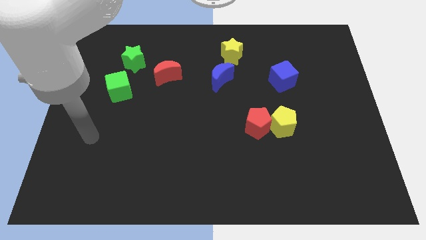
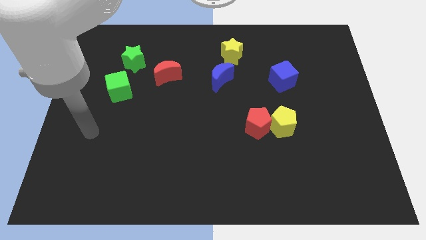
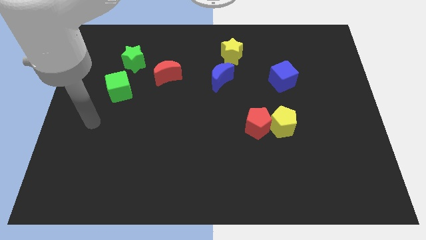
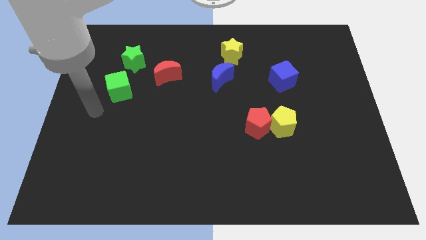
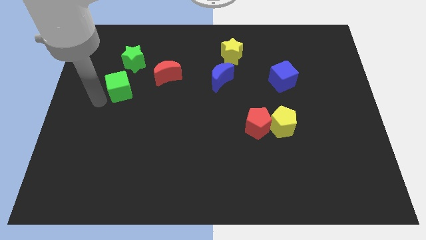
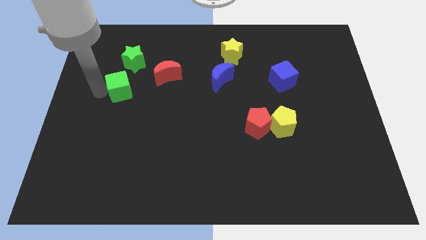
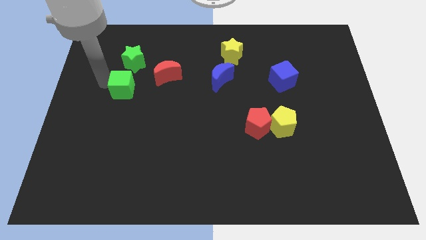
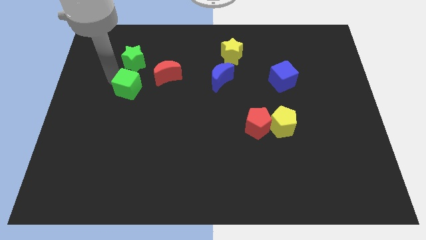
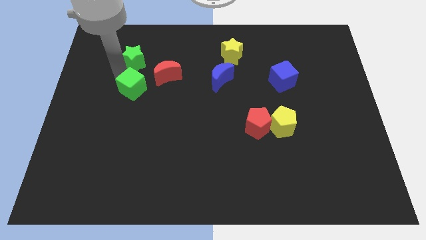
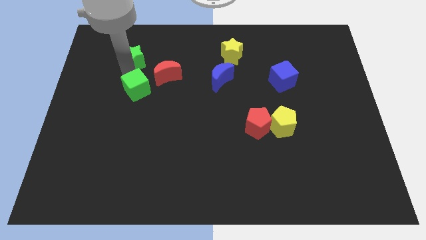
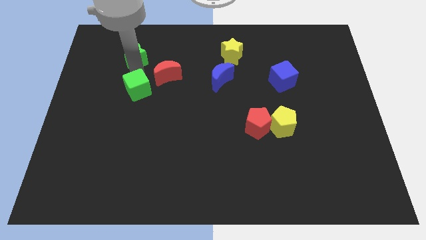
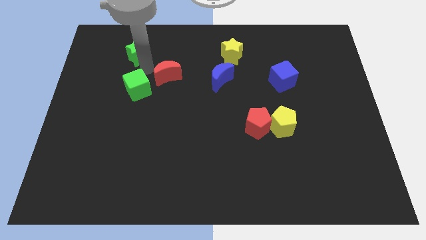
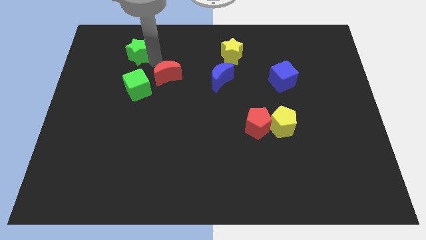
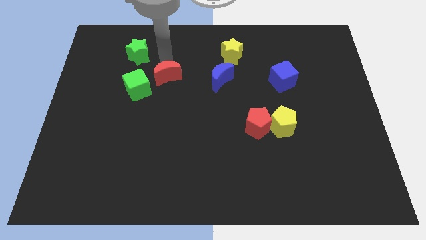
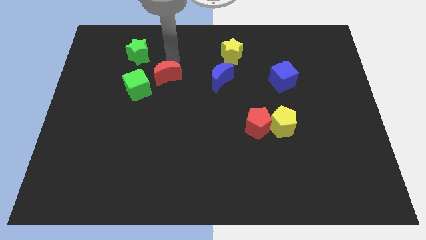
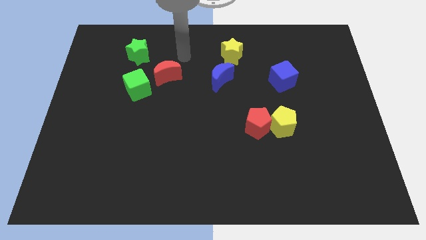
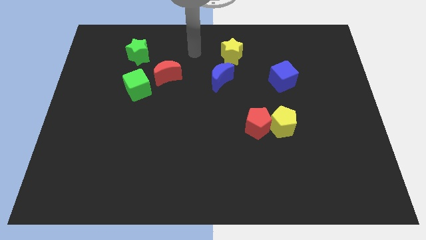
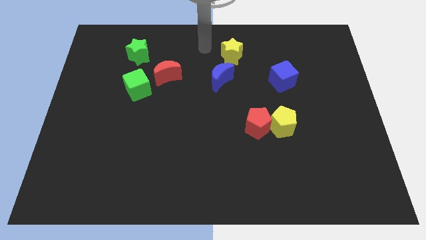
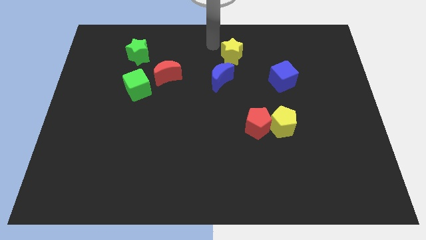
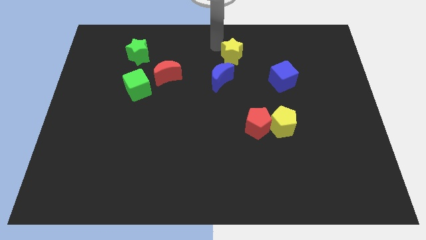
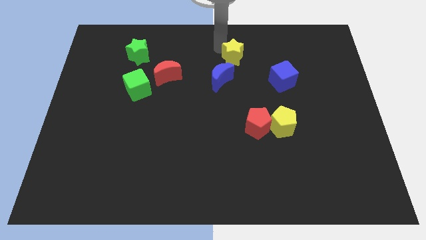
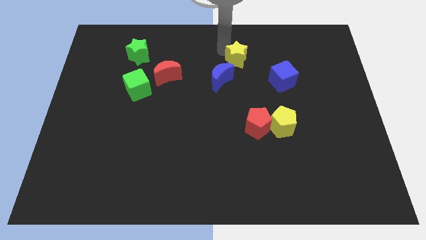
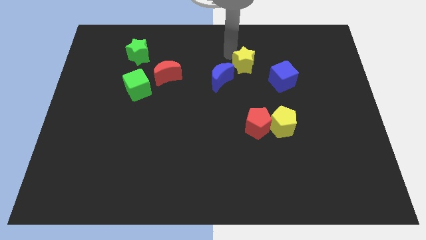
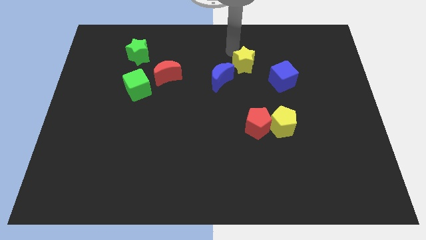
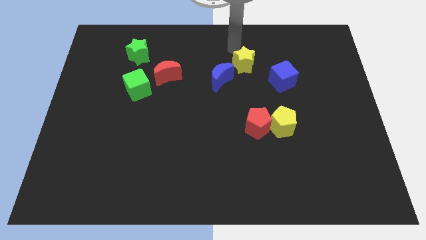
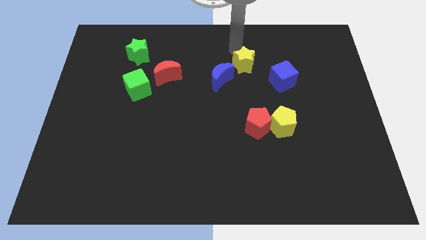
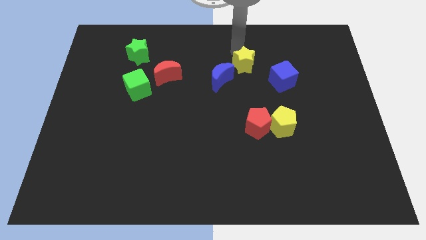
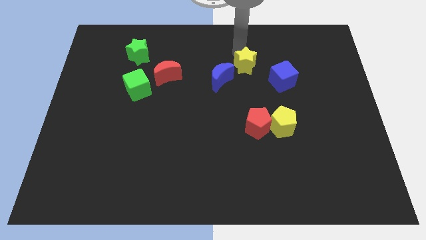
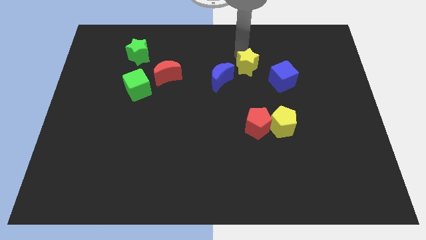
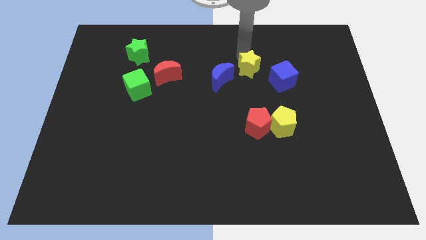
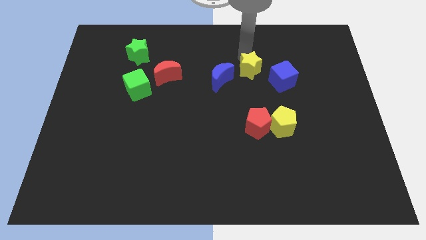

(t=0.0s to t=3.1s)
slightly move the yellow star down and then to the right

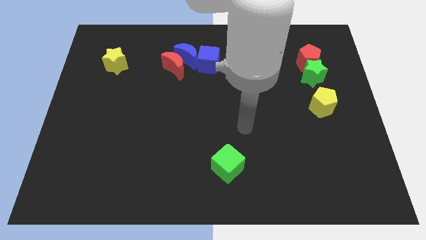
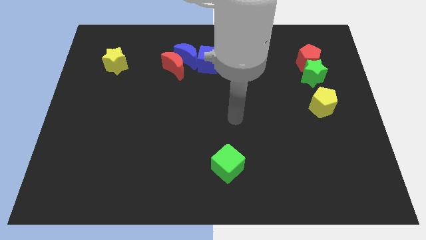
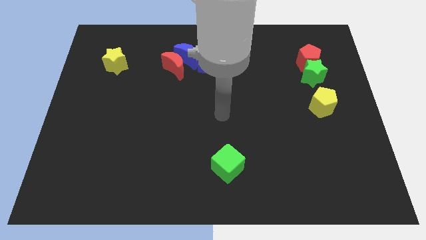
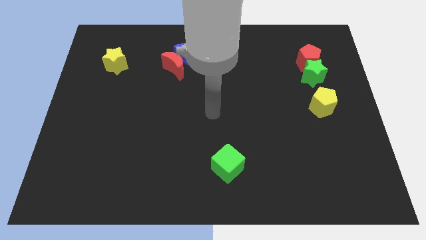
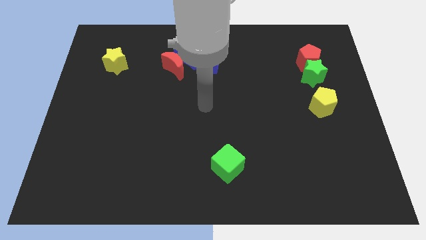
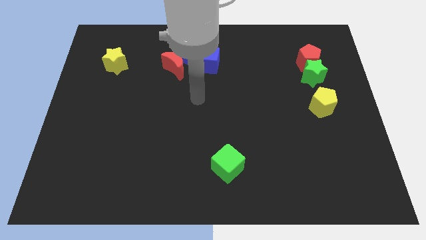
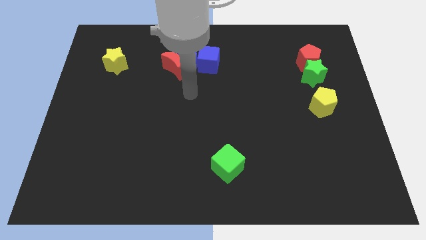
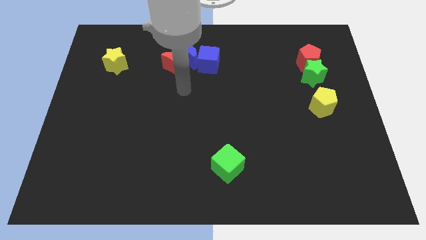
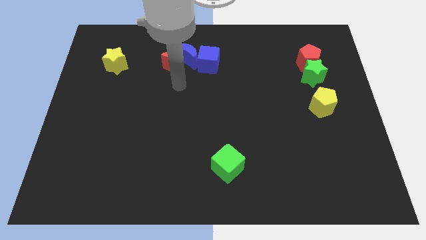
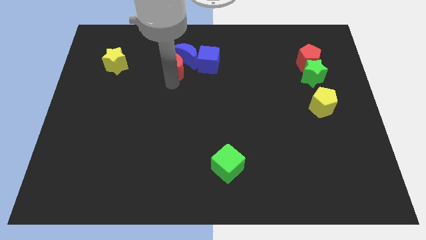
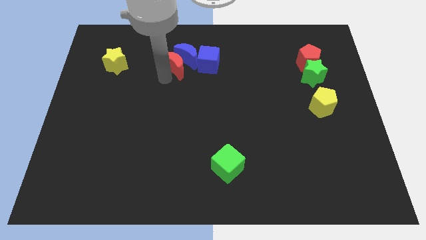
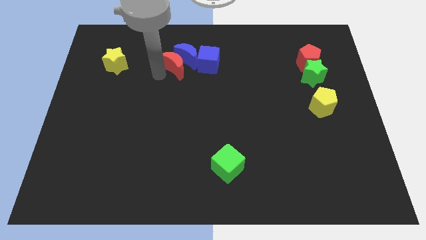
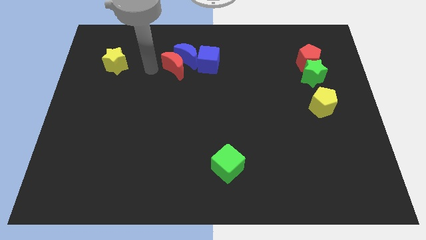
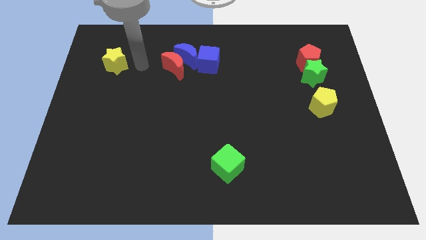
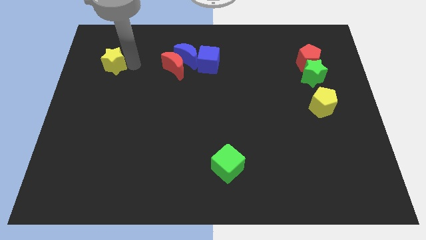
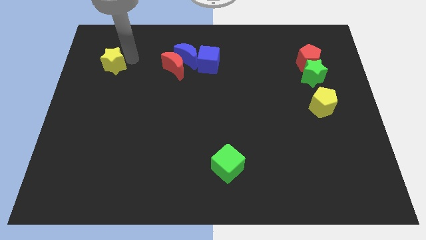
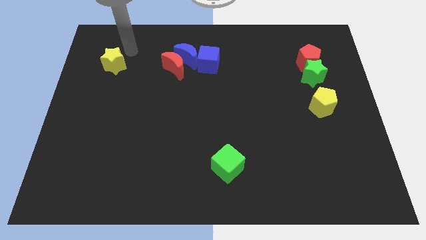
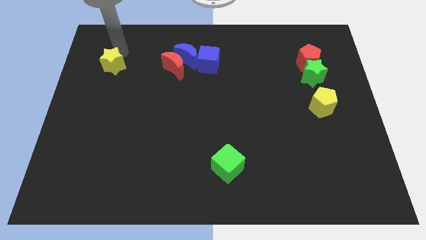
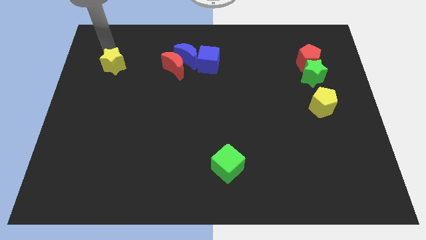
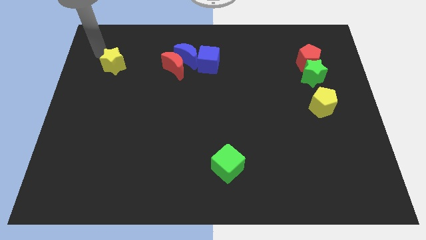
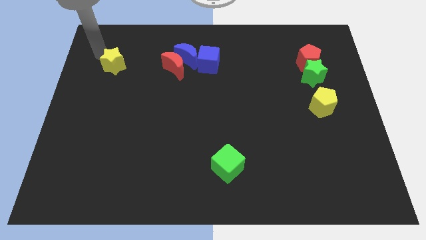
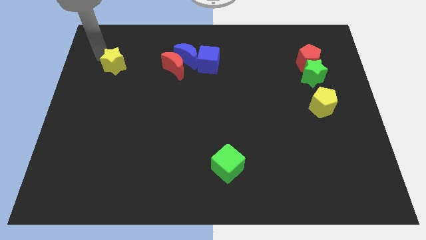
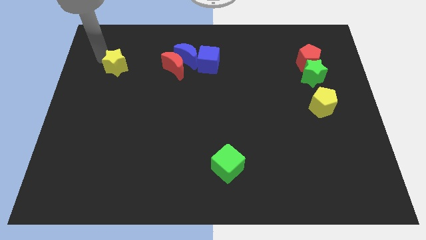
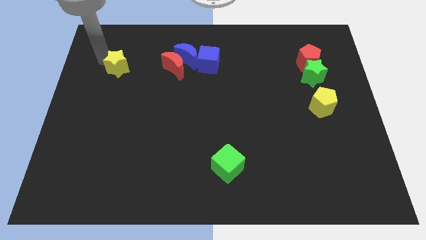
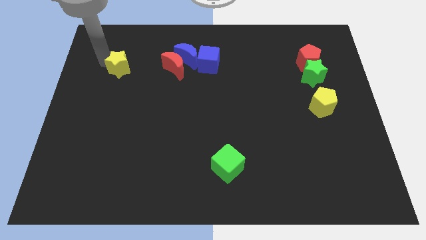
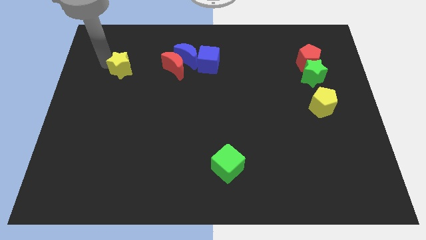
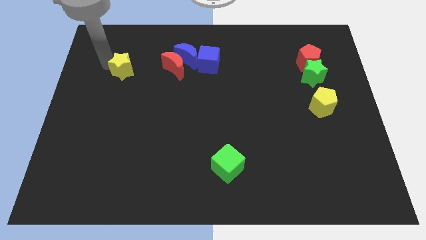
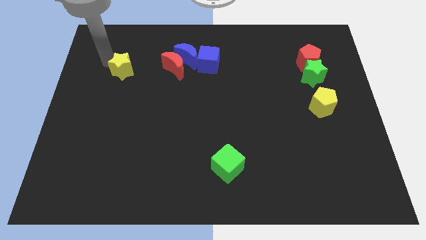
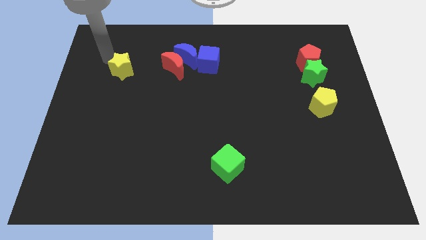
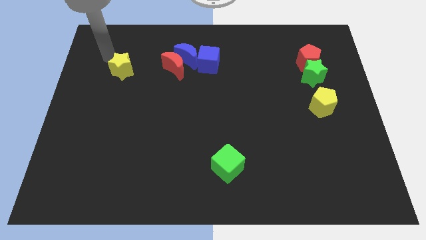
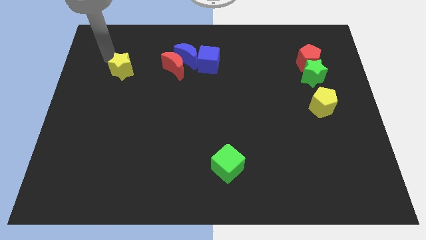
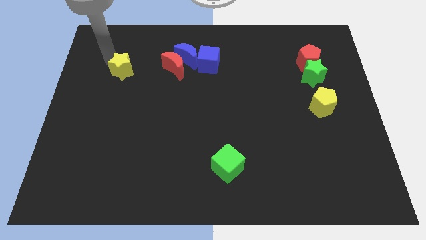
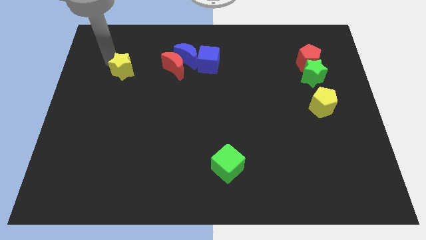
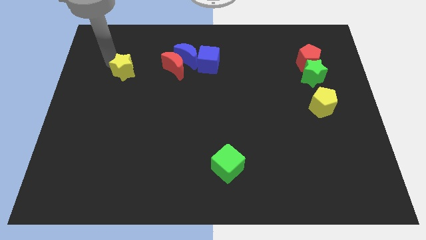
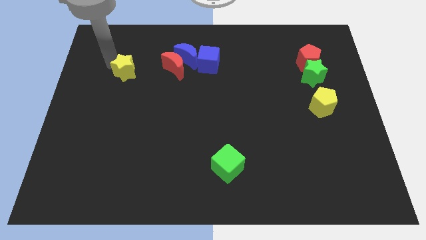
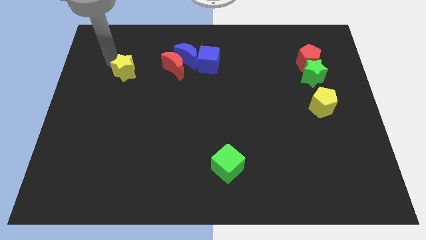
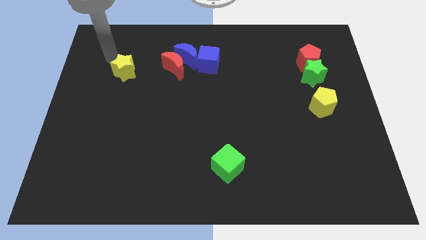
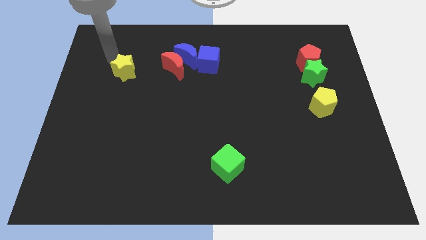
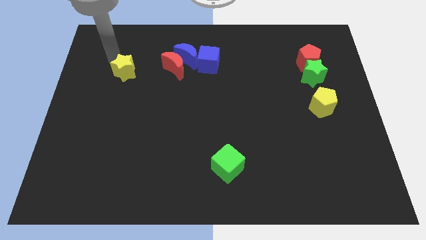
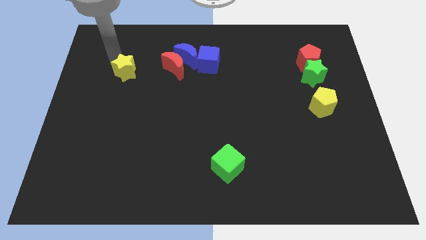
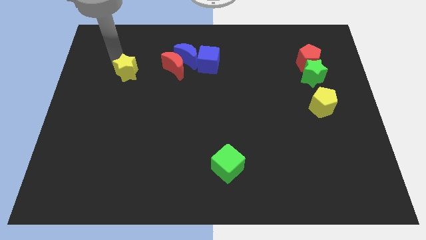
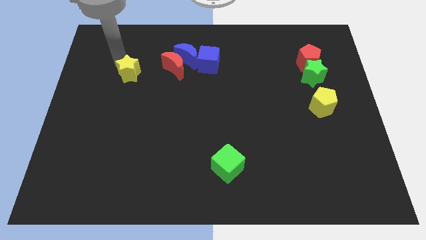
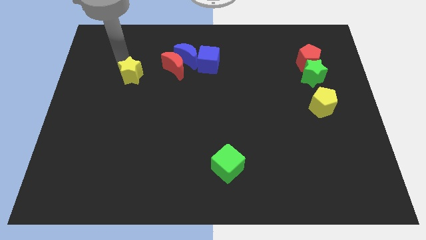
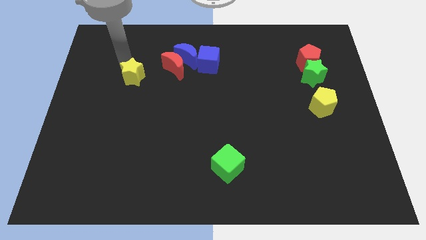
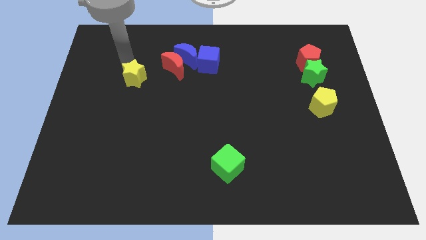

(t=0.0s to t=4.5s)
slightly slide the yellow star diagonally down and right

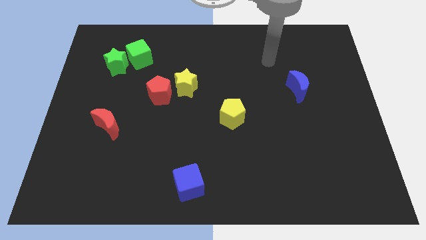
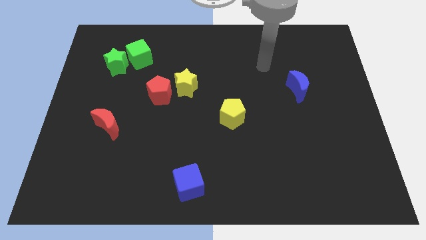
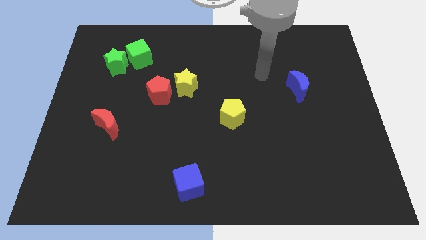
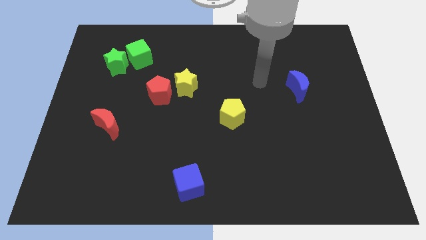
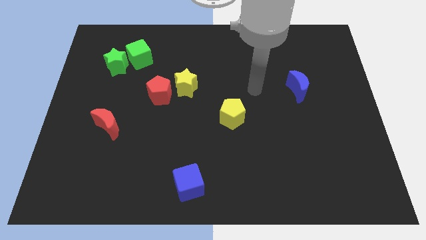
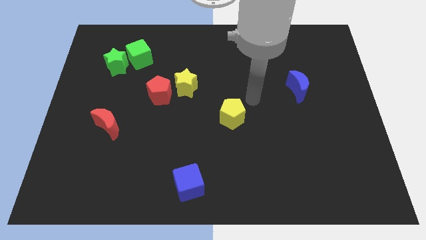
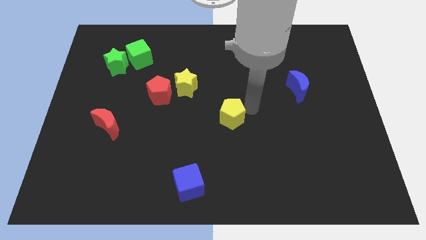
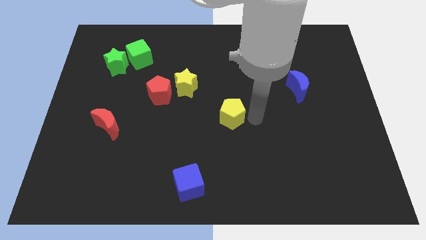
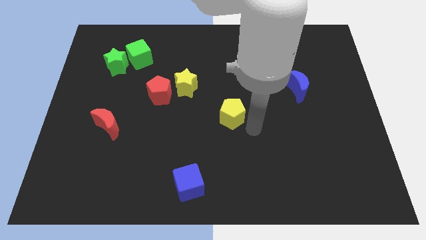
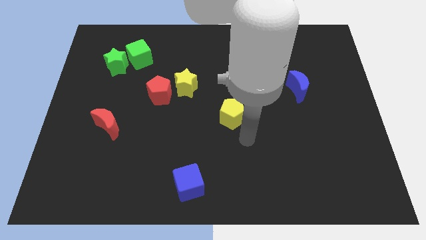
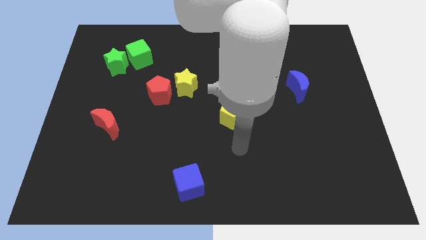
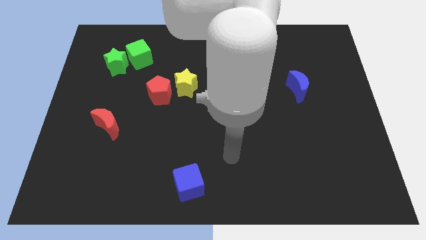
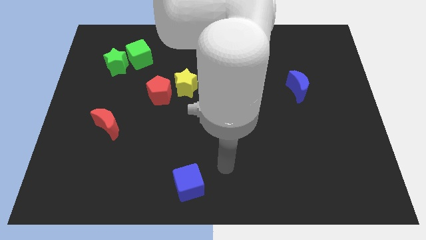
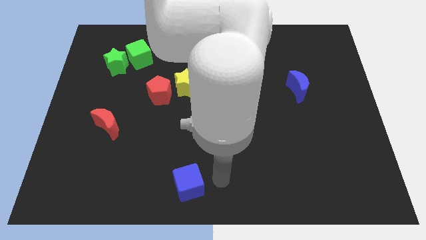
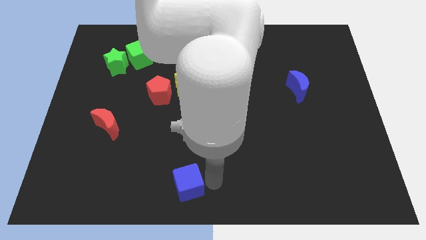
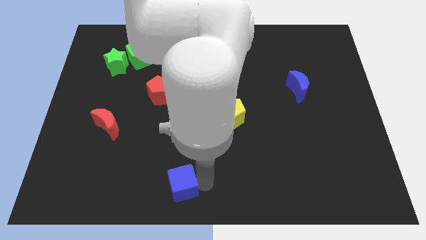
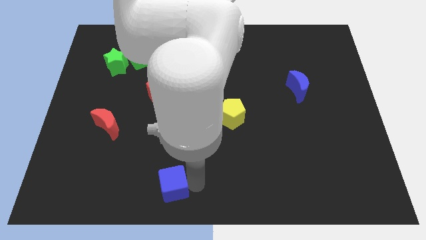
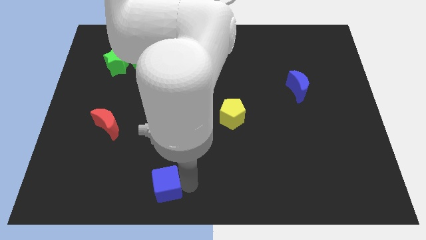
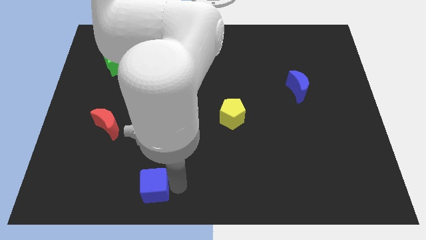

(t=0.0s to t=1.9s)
slide the blue cube somewhat to the left
